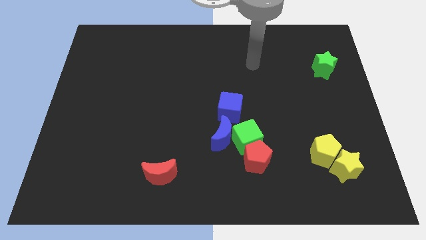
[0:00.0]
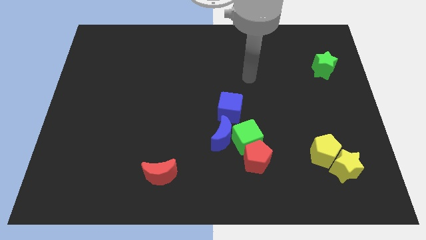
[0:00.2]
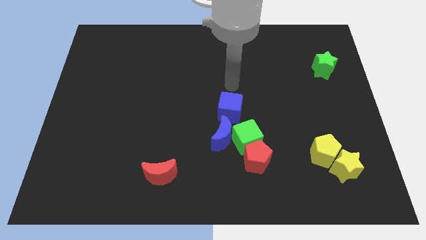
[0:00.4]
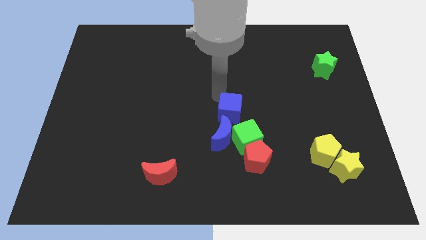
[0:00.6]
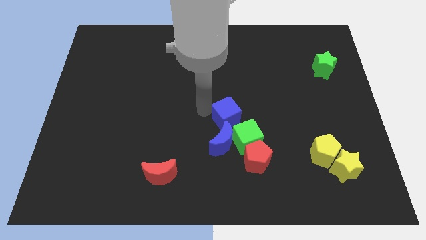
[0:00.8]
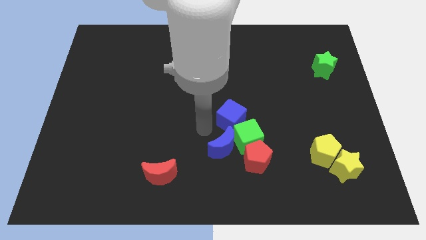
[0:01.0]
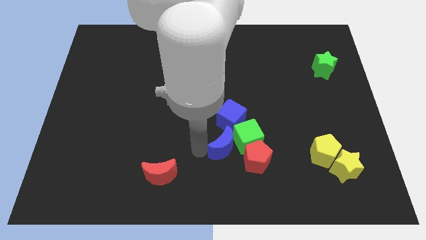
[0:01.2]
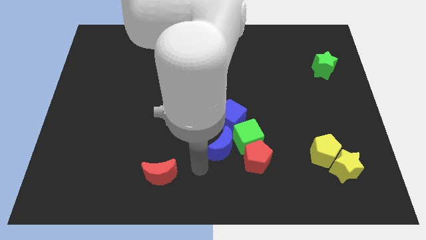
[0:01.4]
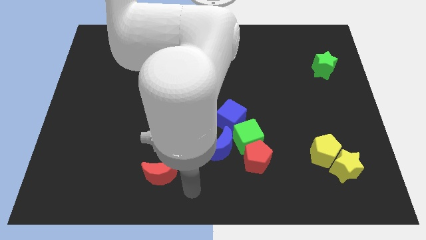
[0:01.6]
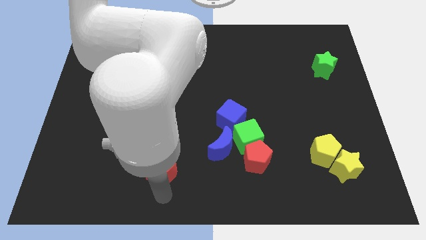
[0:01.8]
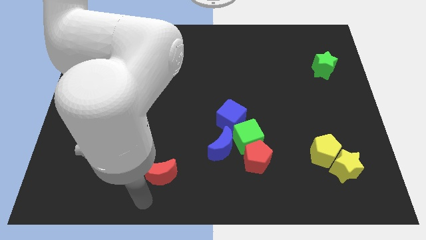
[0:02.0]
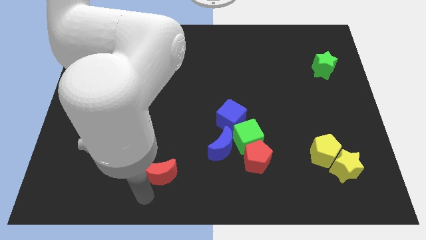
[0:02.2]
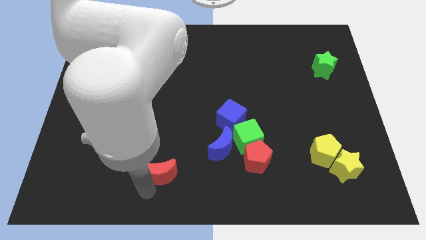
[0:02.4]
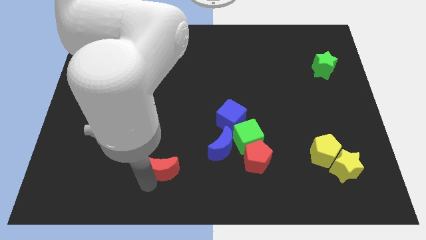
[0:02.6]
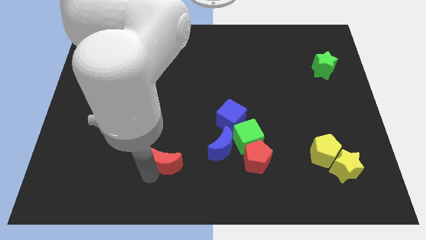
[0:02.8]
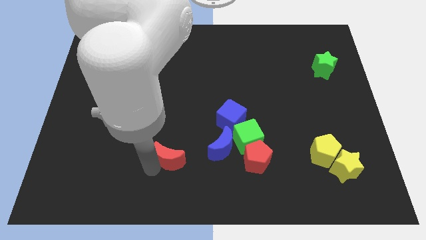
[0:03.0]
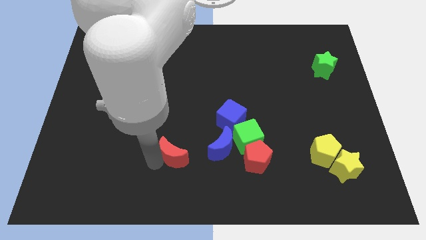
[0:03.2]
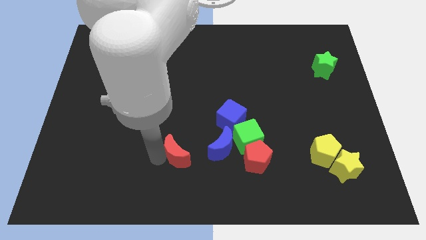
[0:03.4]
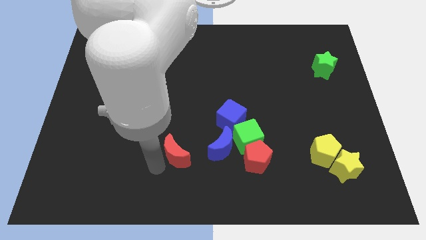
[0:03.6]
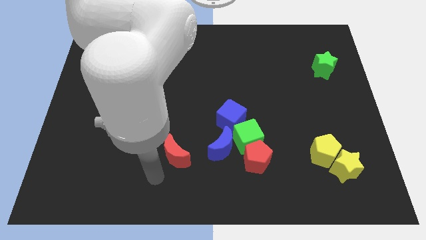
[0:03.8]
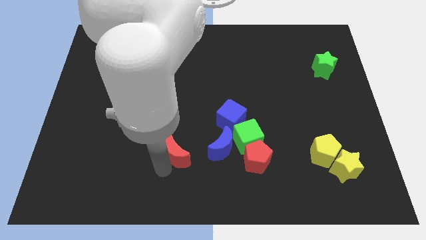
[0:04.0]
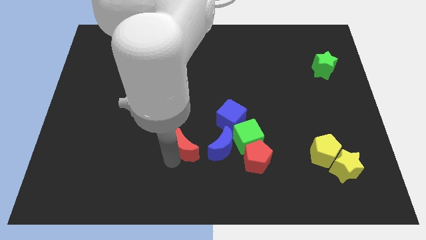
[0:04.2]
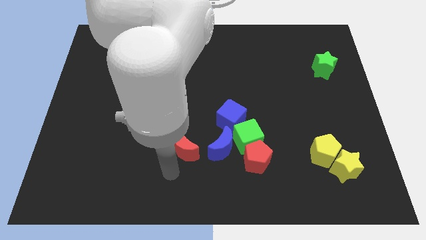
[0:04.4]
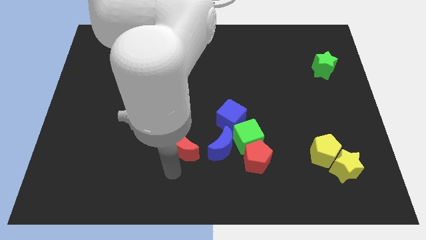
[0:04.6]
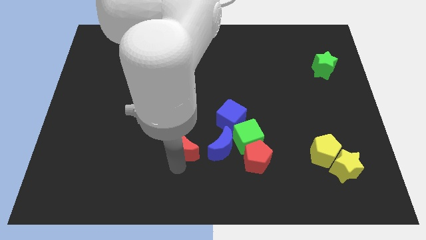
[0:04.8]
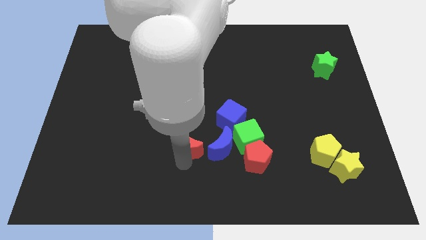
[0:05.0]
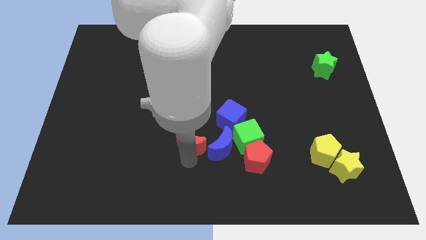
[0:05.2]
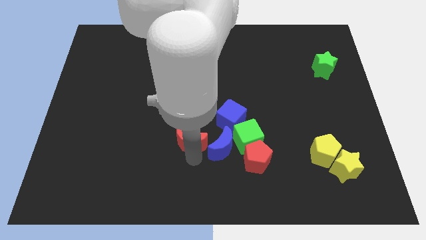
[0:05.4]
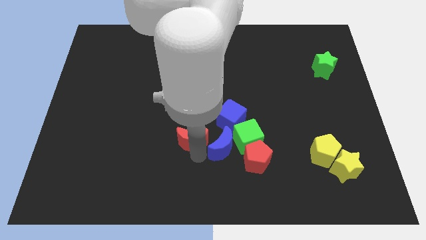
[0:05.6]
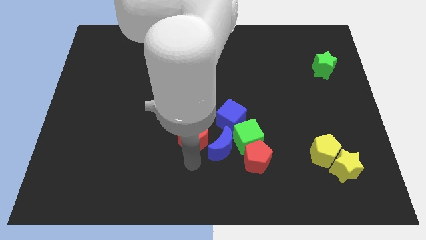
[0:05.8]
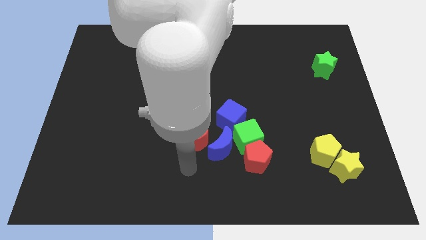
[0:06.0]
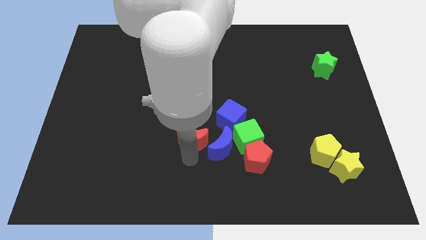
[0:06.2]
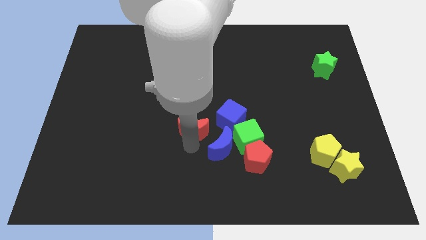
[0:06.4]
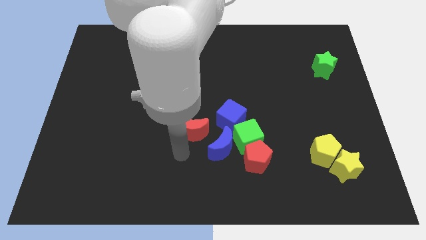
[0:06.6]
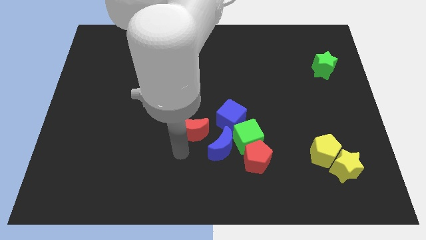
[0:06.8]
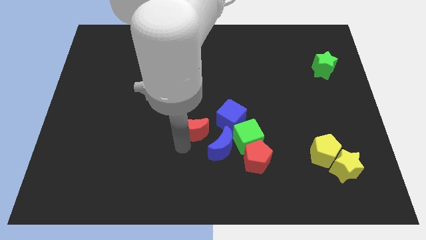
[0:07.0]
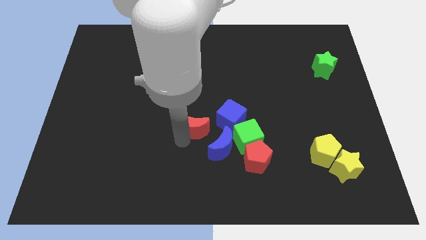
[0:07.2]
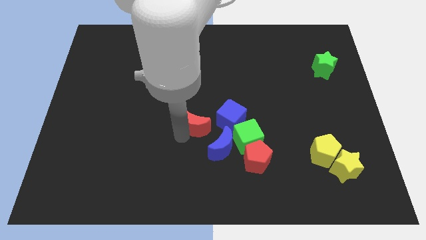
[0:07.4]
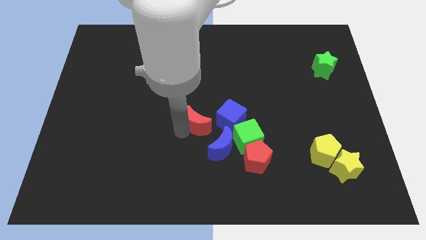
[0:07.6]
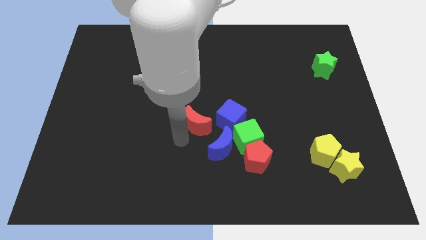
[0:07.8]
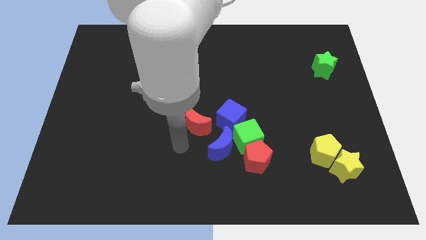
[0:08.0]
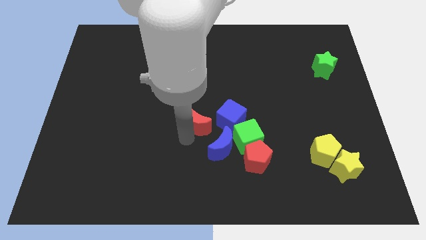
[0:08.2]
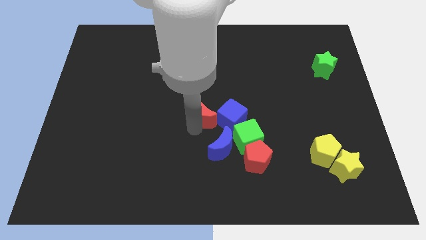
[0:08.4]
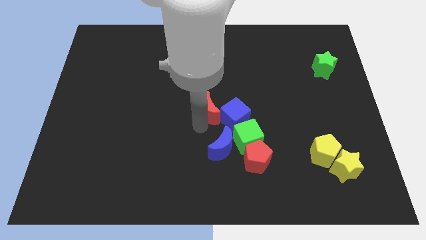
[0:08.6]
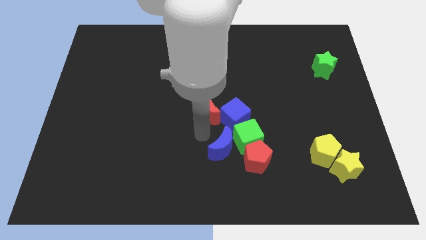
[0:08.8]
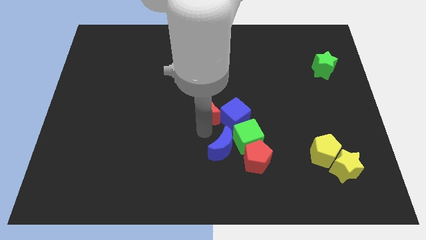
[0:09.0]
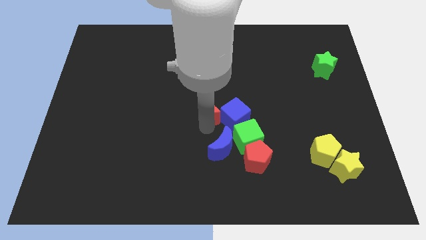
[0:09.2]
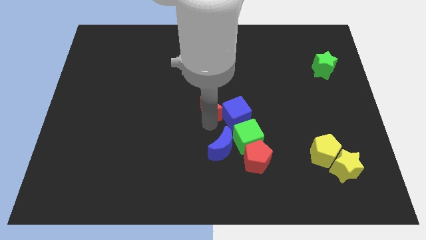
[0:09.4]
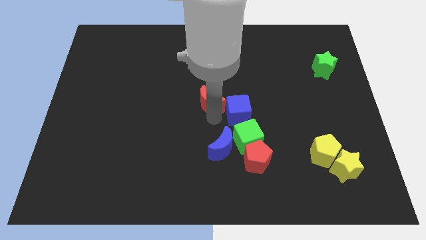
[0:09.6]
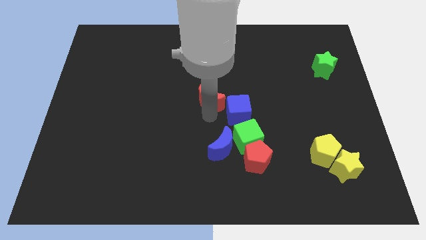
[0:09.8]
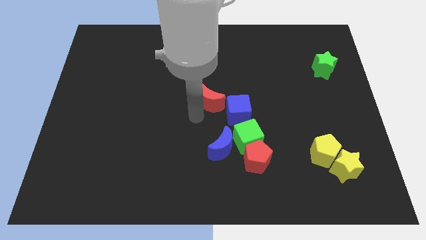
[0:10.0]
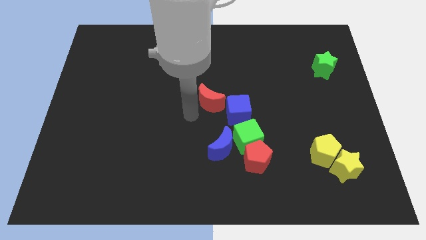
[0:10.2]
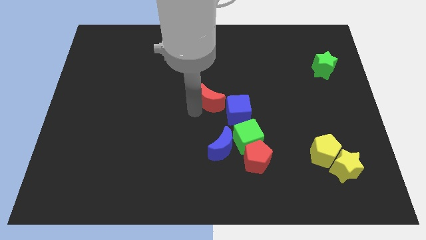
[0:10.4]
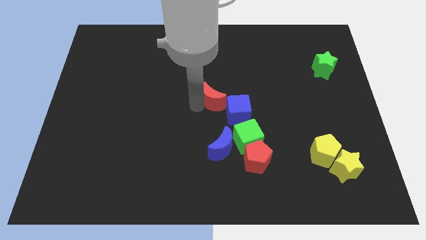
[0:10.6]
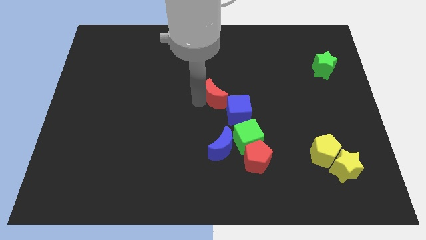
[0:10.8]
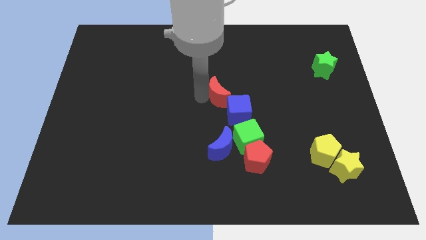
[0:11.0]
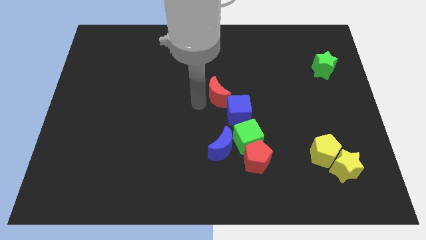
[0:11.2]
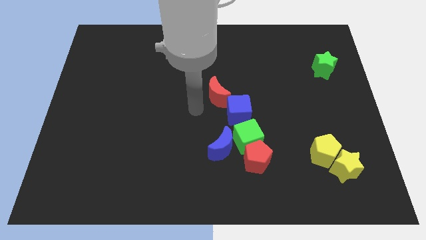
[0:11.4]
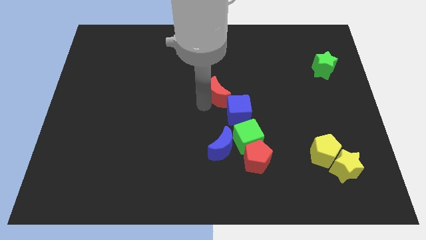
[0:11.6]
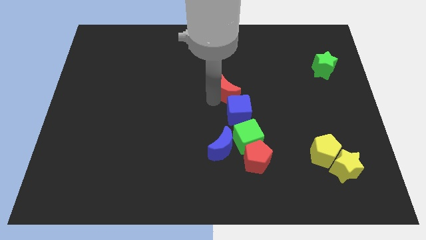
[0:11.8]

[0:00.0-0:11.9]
put the red moon above the green cube

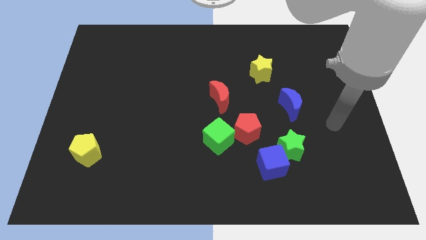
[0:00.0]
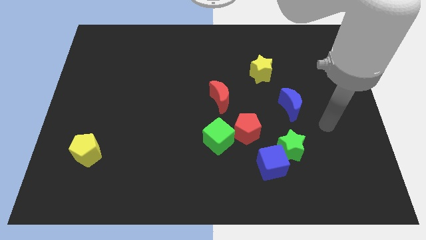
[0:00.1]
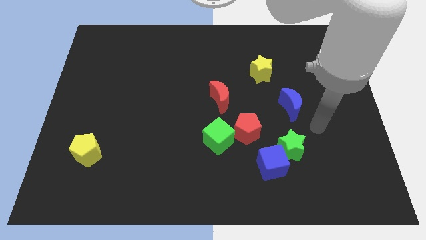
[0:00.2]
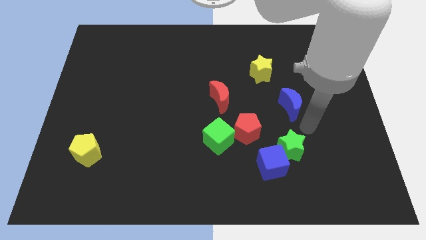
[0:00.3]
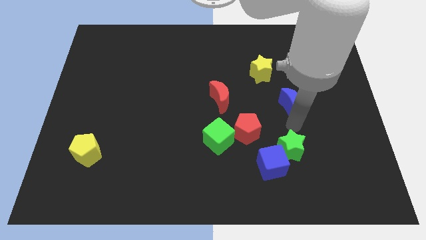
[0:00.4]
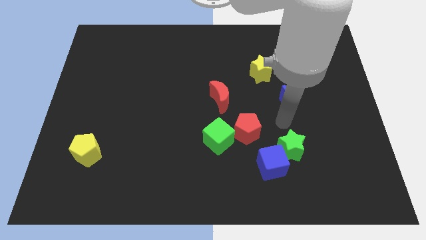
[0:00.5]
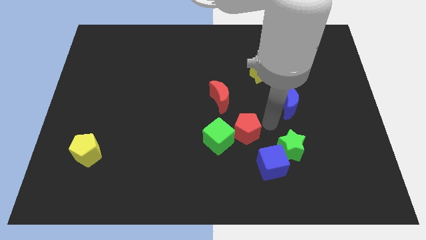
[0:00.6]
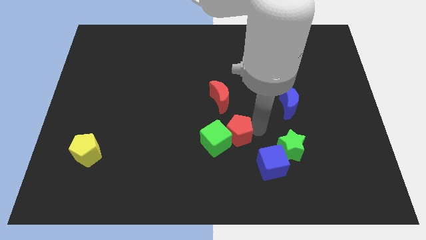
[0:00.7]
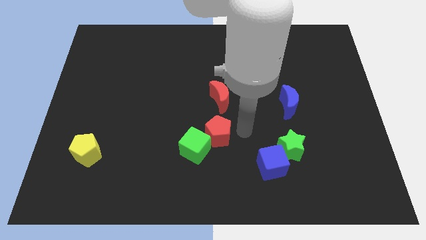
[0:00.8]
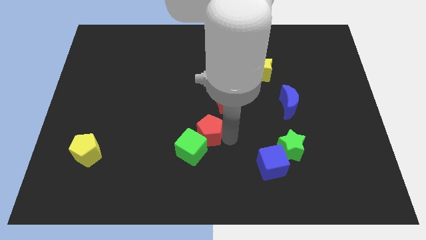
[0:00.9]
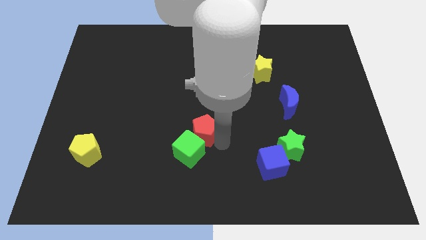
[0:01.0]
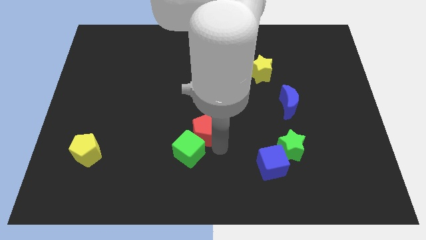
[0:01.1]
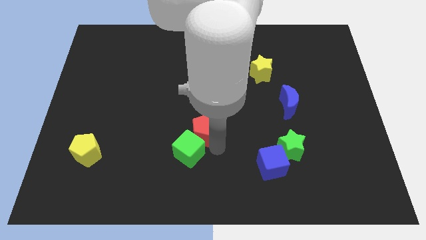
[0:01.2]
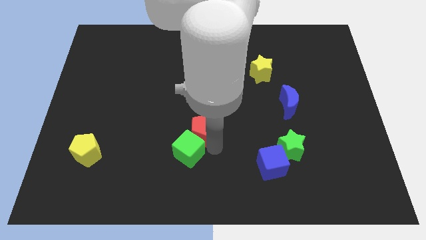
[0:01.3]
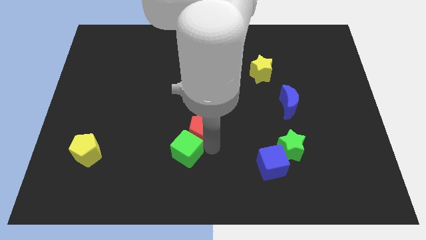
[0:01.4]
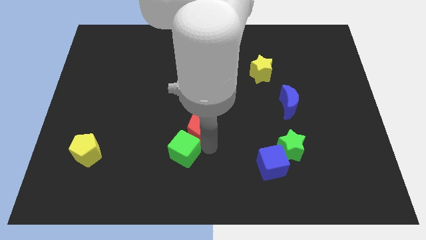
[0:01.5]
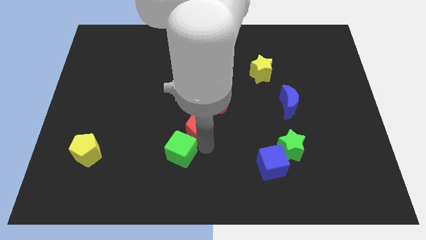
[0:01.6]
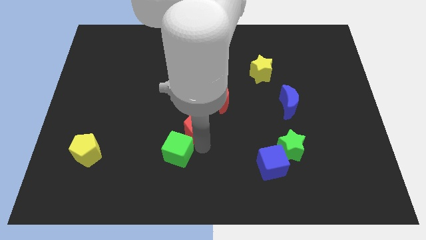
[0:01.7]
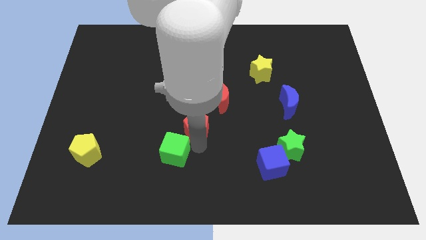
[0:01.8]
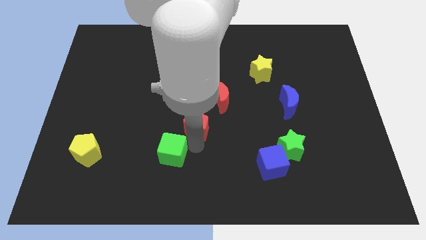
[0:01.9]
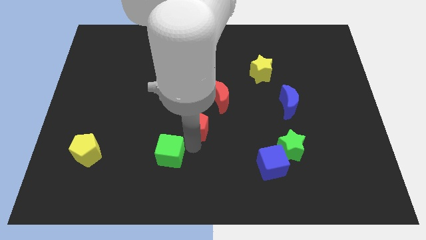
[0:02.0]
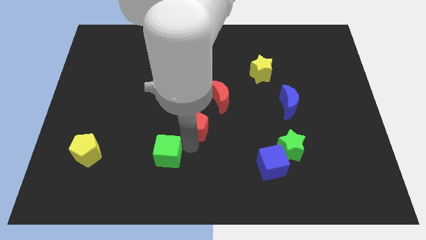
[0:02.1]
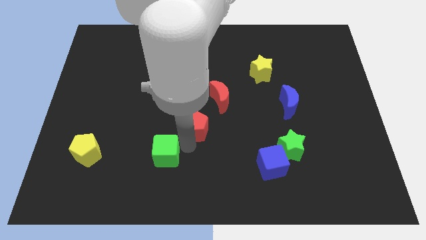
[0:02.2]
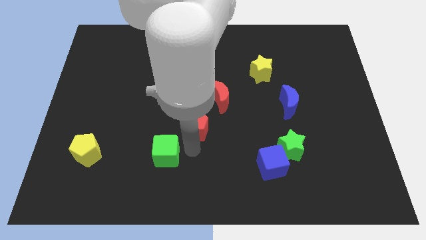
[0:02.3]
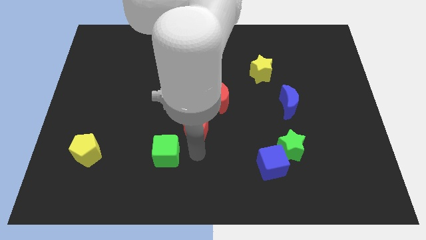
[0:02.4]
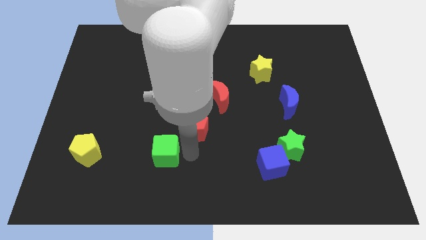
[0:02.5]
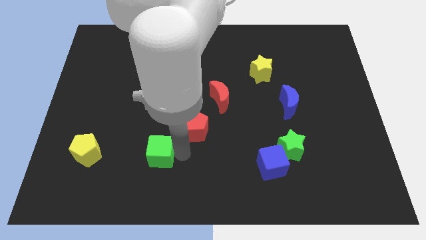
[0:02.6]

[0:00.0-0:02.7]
move the green cube just right of the yellow pentagon
